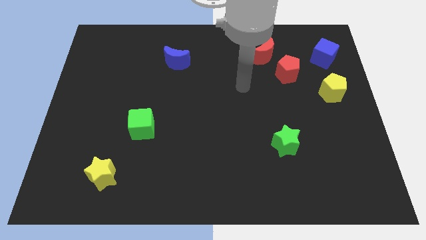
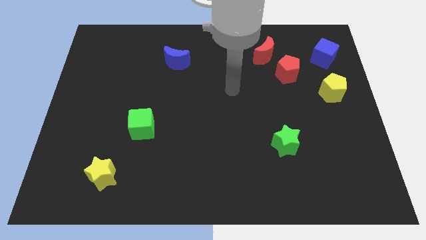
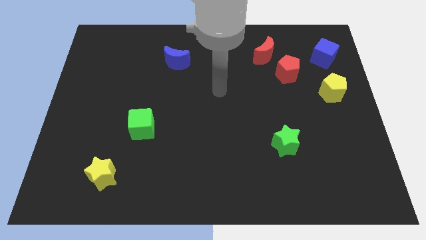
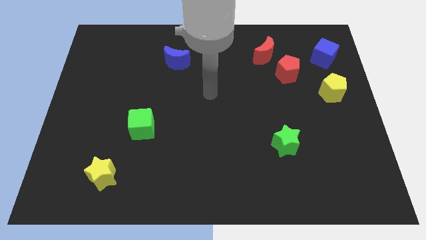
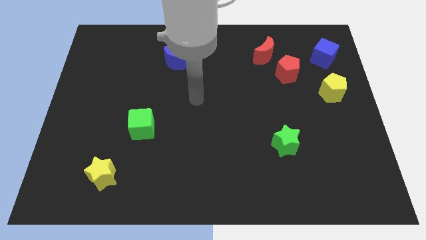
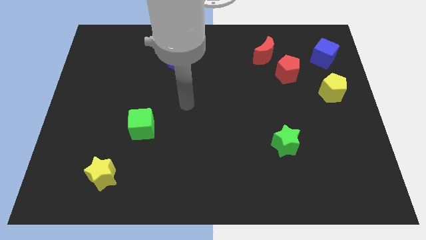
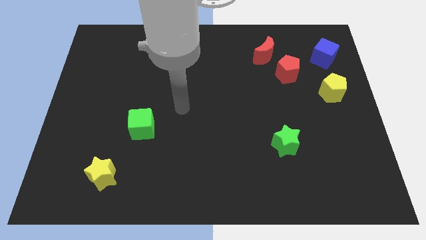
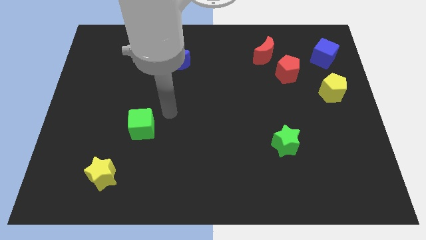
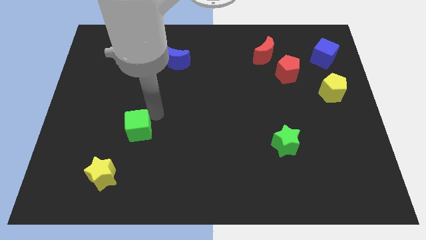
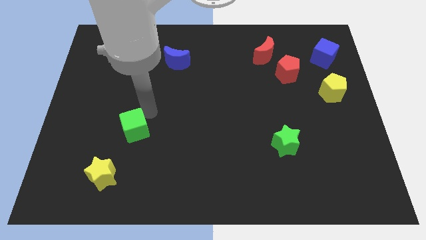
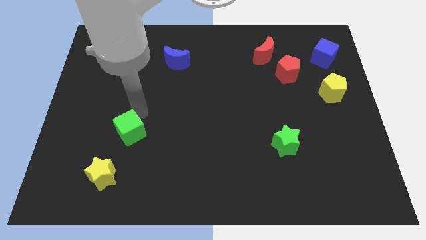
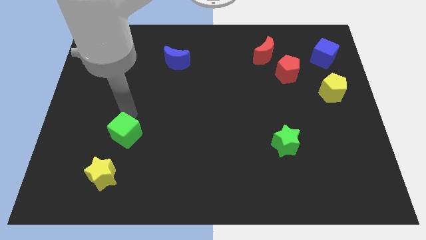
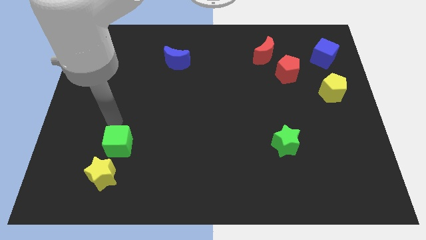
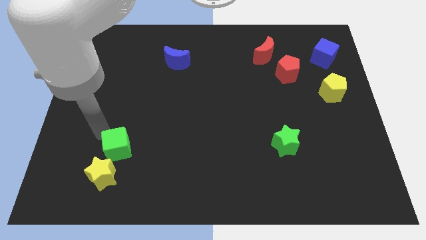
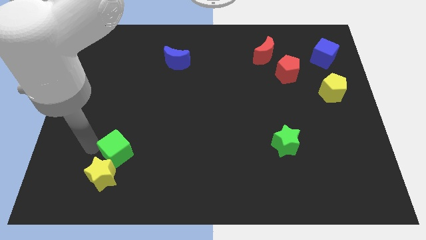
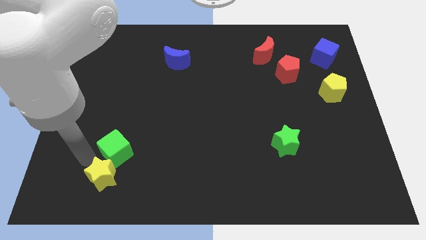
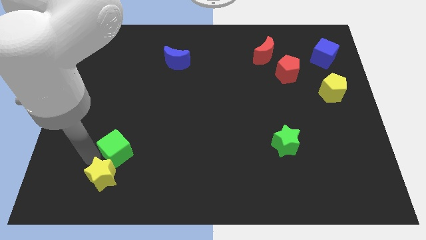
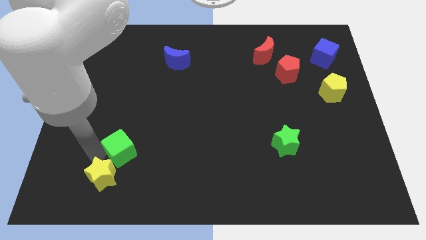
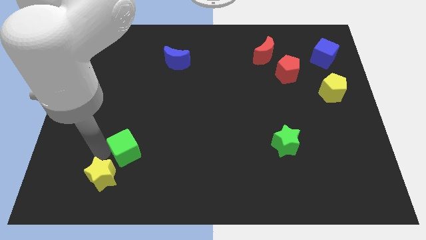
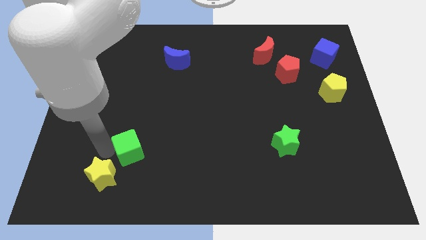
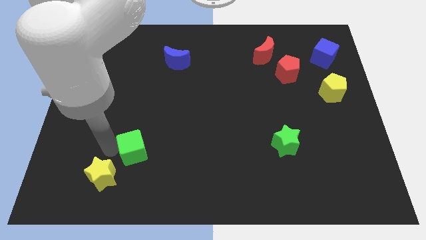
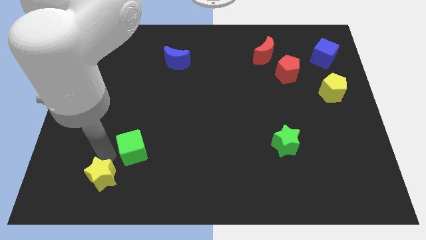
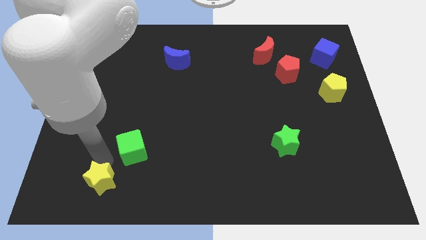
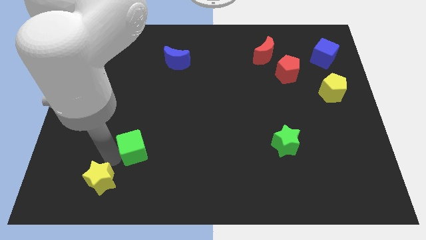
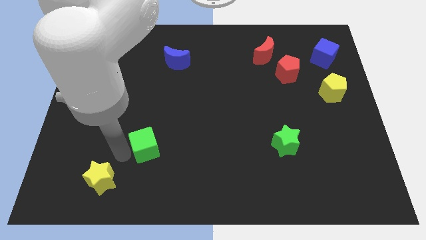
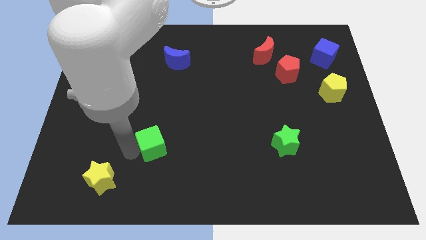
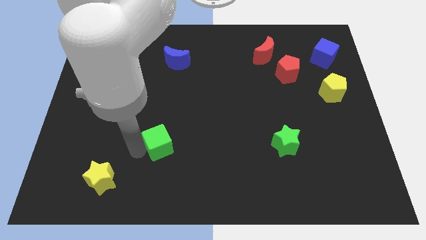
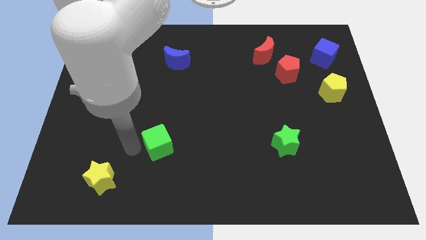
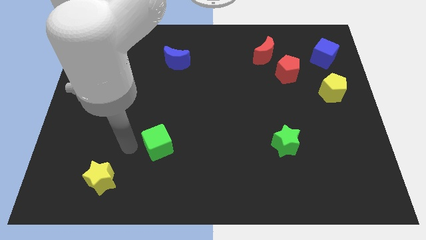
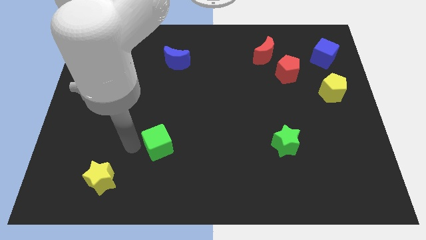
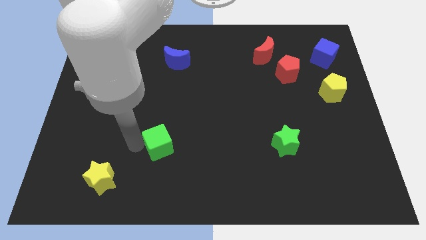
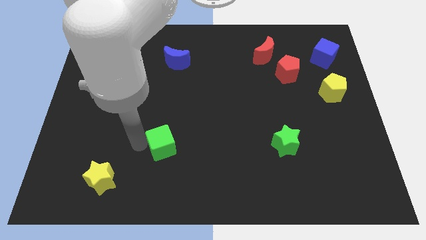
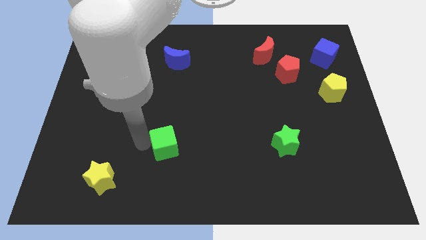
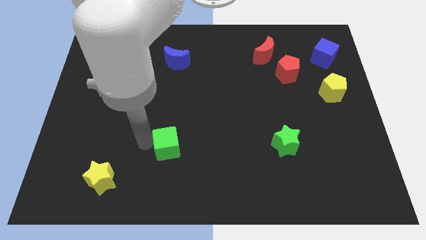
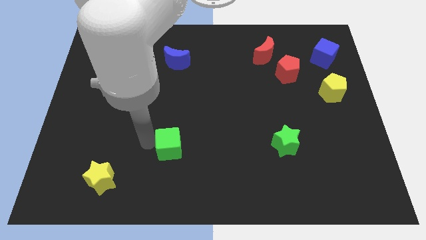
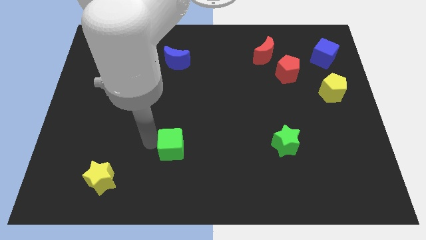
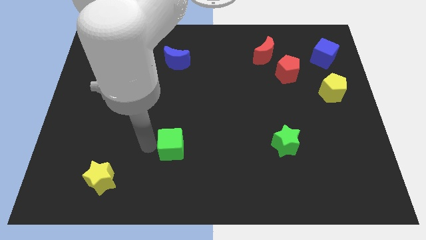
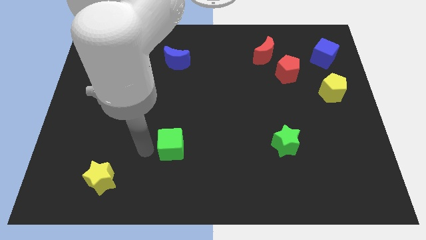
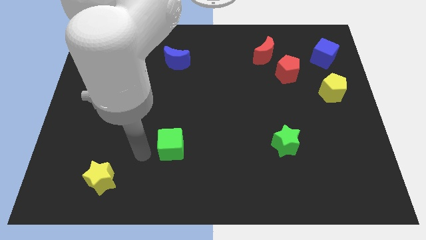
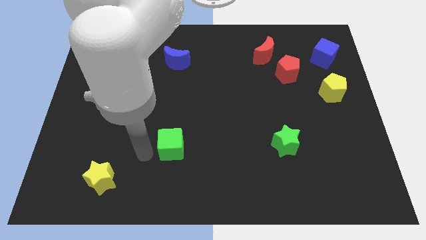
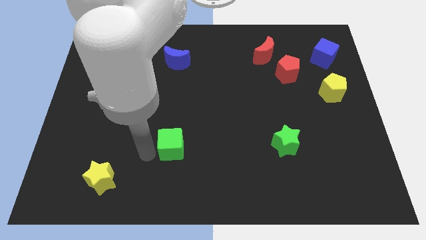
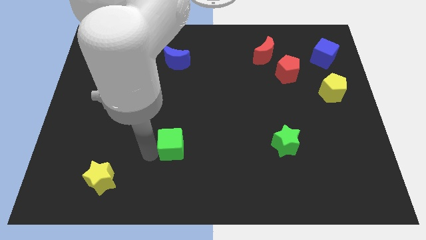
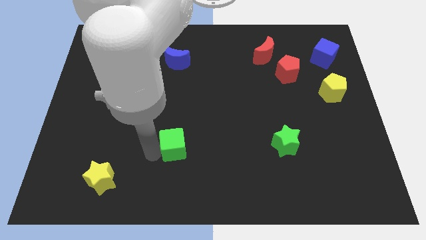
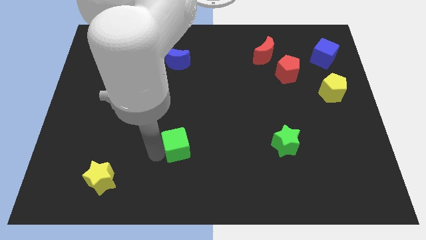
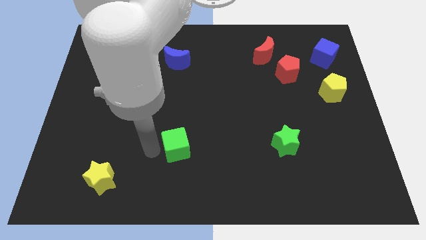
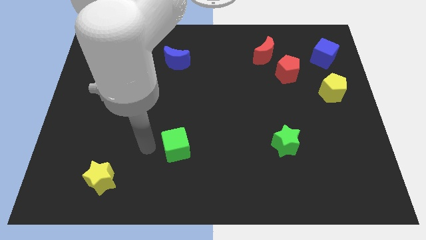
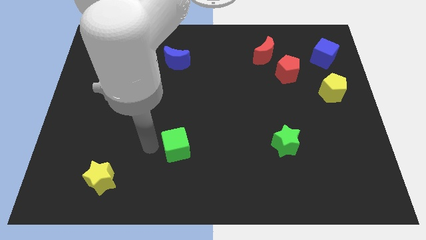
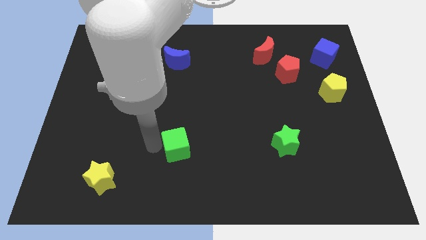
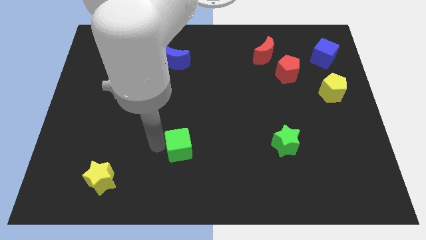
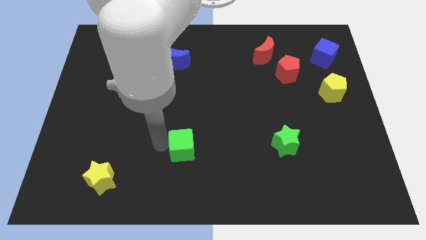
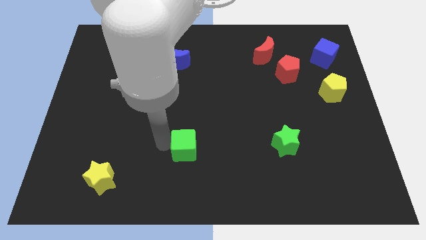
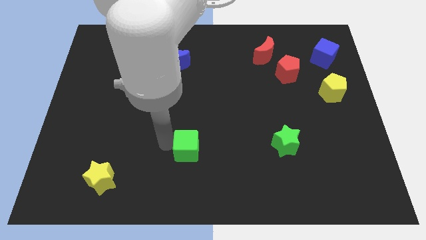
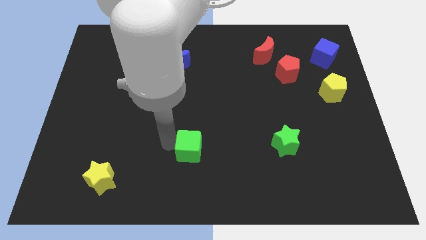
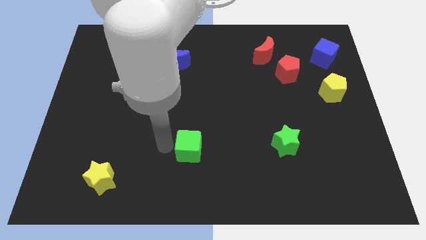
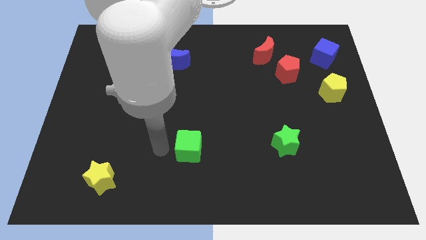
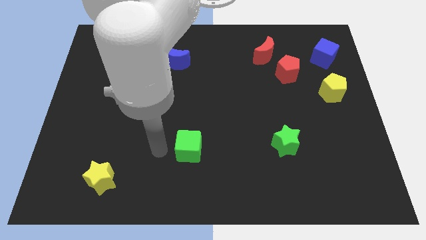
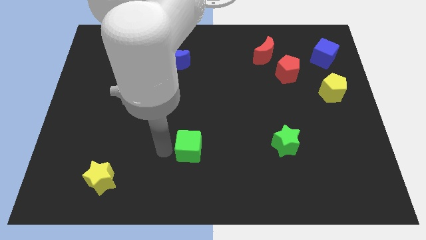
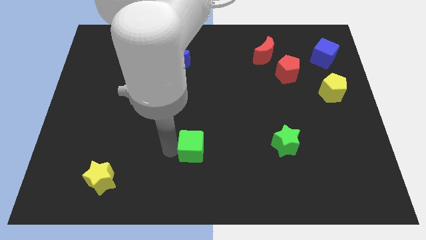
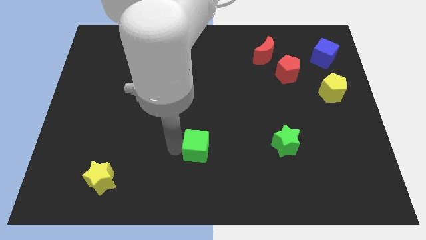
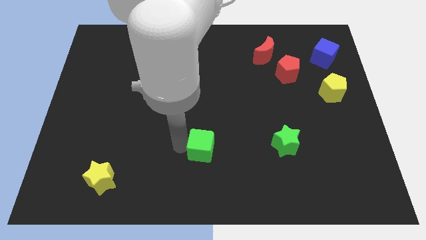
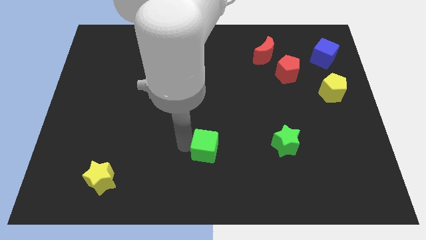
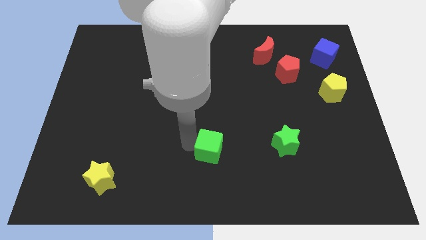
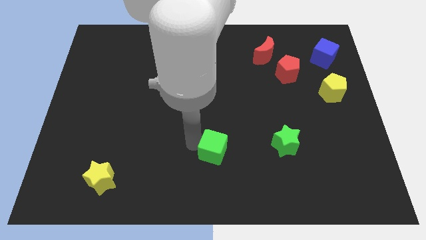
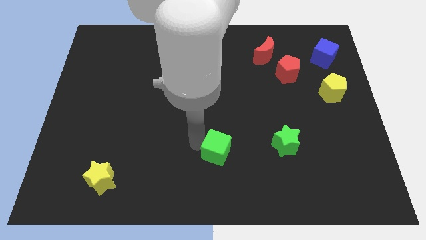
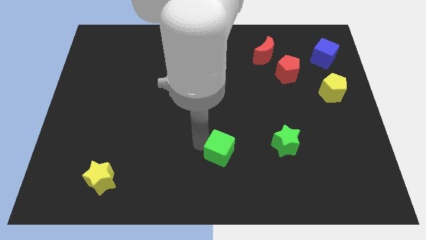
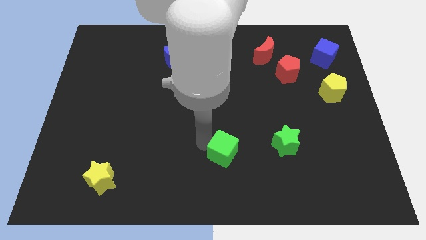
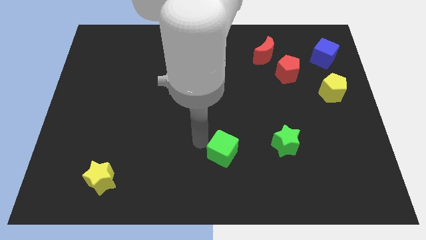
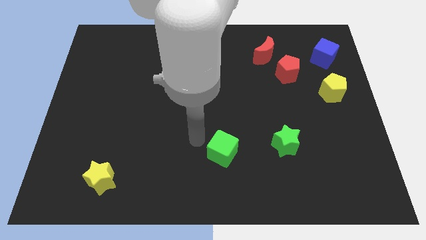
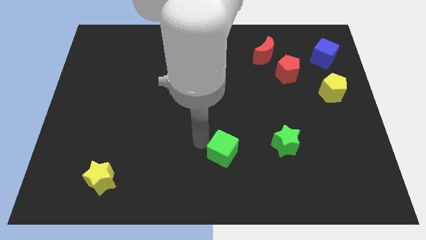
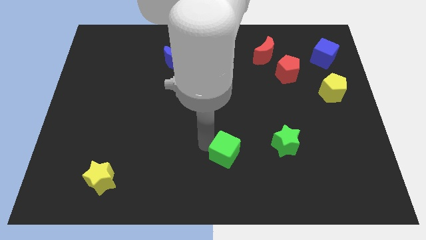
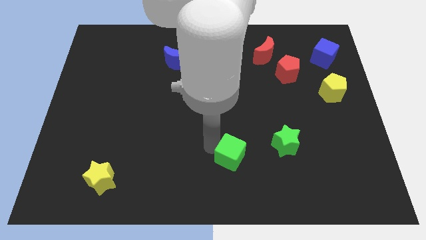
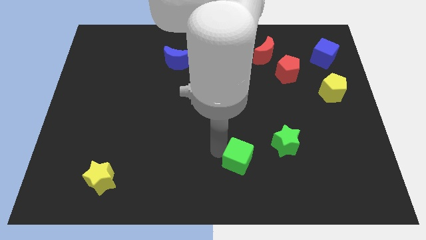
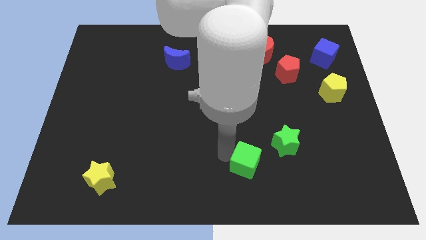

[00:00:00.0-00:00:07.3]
slide the green cube to the bottom left of the green star
